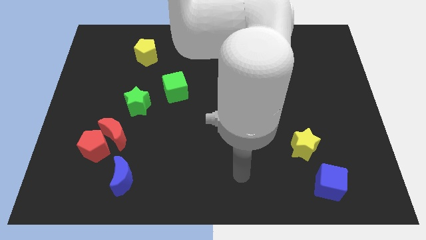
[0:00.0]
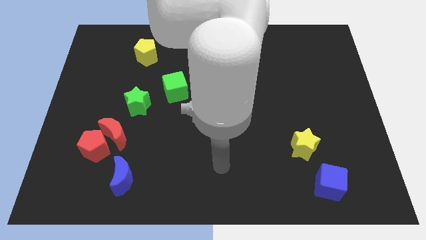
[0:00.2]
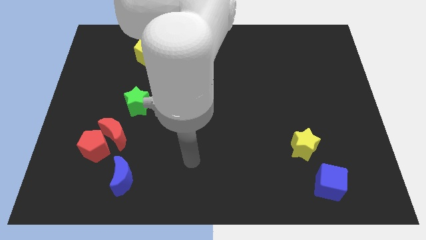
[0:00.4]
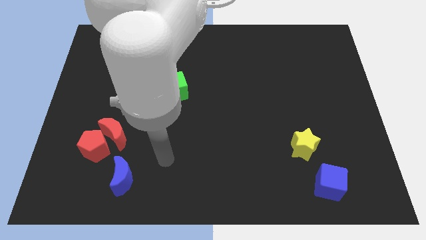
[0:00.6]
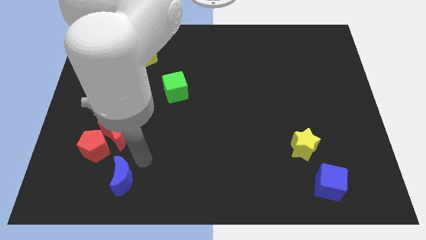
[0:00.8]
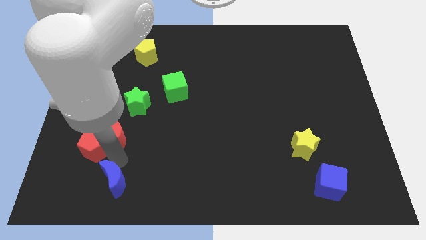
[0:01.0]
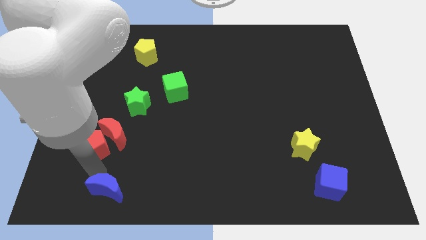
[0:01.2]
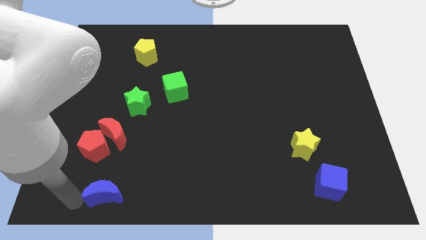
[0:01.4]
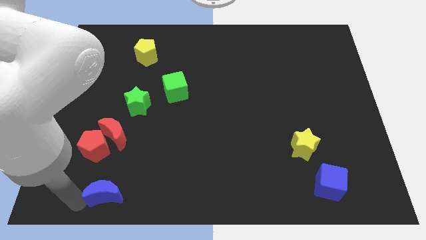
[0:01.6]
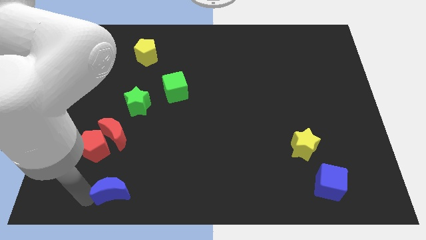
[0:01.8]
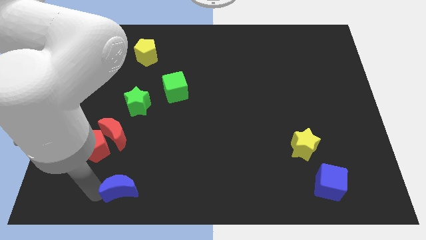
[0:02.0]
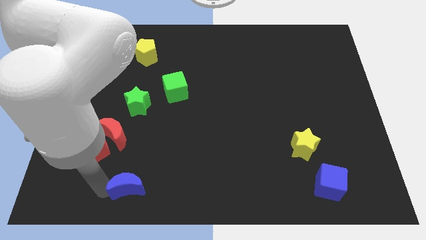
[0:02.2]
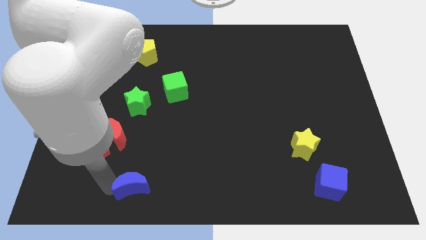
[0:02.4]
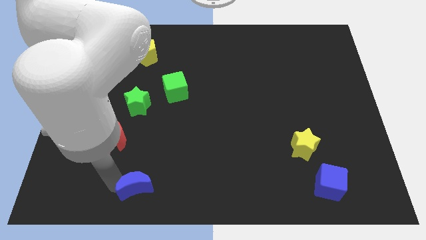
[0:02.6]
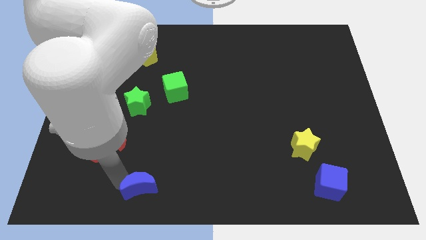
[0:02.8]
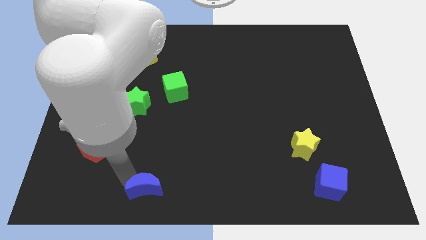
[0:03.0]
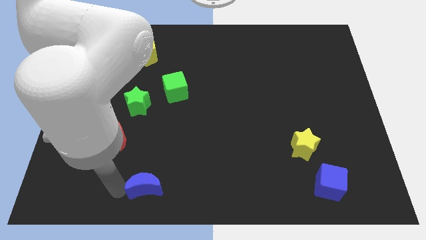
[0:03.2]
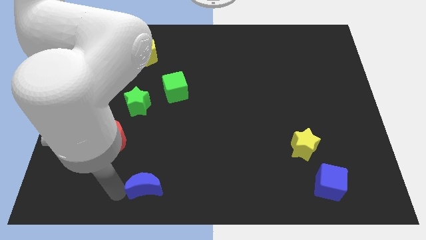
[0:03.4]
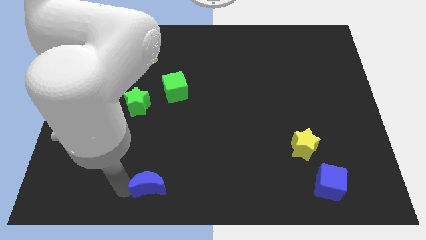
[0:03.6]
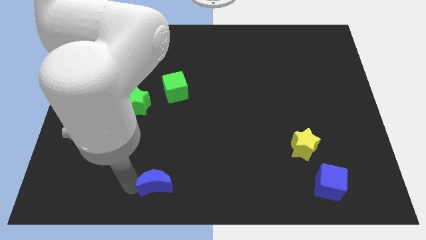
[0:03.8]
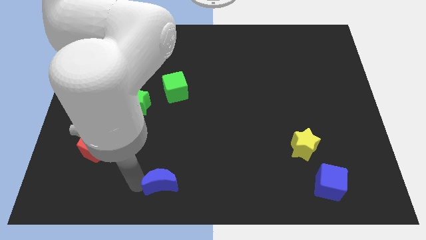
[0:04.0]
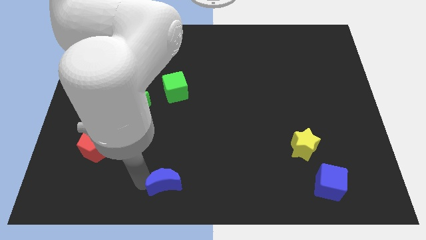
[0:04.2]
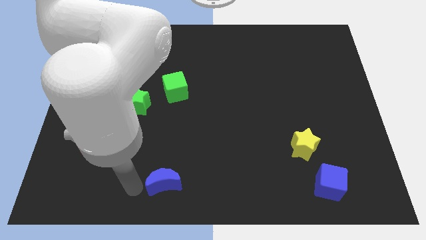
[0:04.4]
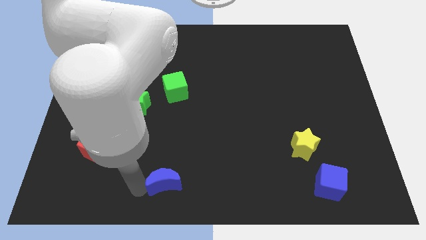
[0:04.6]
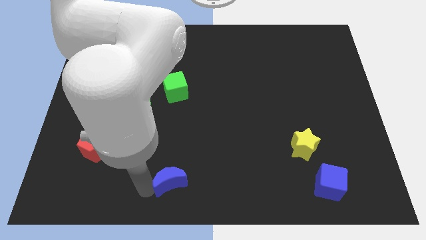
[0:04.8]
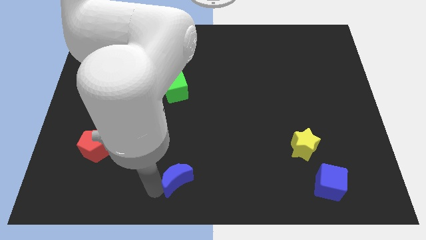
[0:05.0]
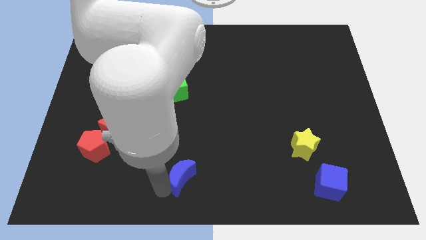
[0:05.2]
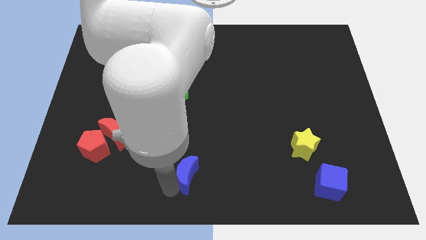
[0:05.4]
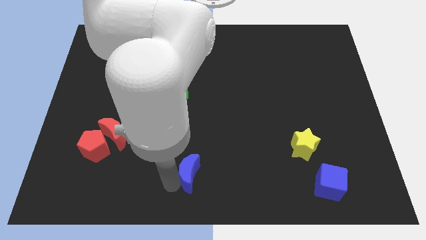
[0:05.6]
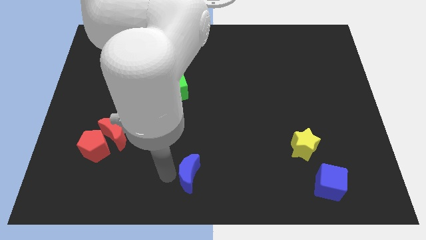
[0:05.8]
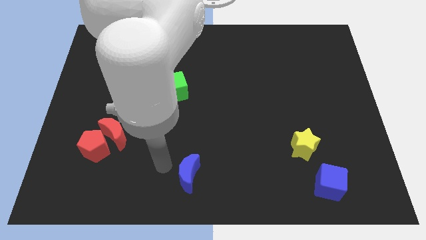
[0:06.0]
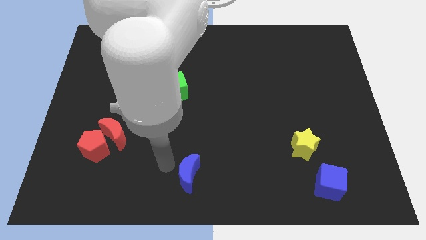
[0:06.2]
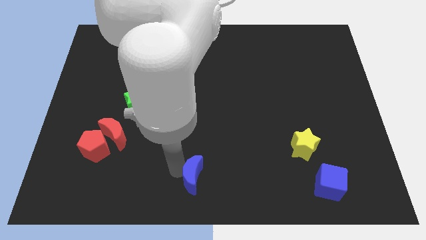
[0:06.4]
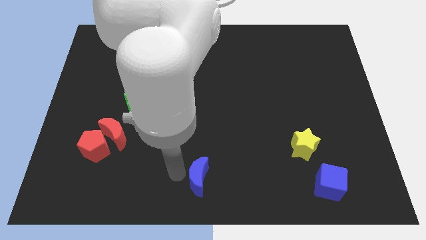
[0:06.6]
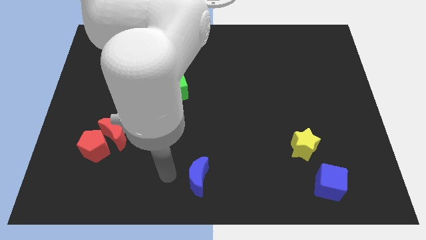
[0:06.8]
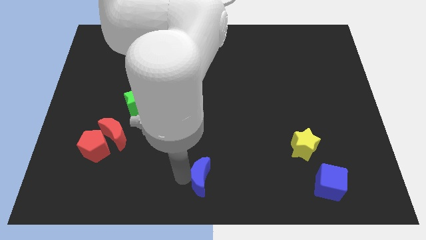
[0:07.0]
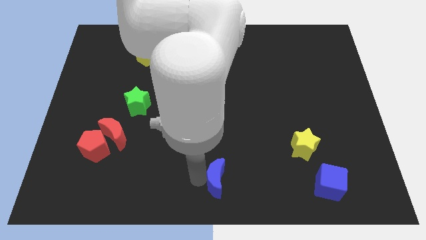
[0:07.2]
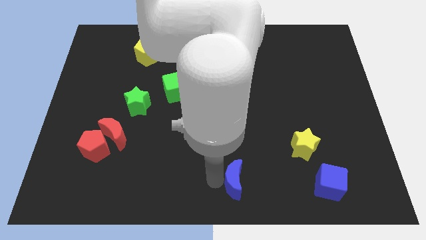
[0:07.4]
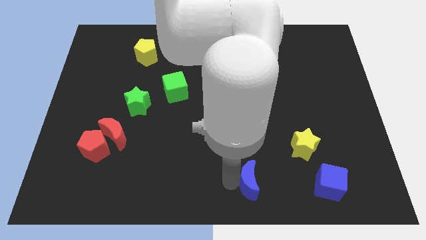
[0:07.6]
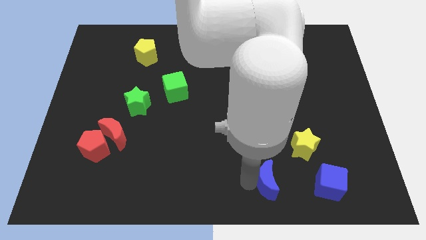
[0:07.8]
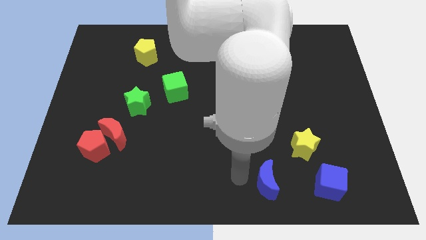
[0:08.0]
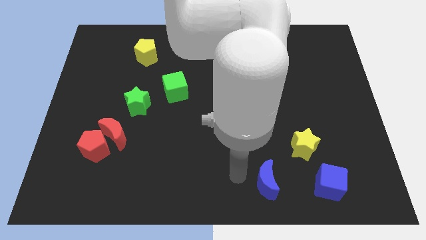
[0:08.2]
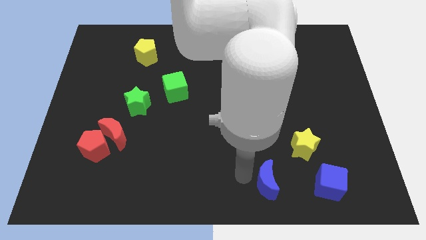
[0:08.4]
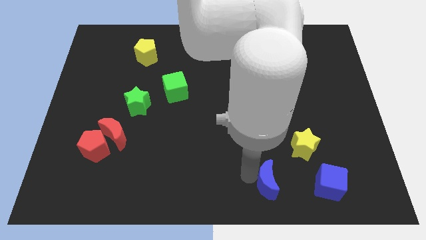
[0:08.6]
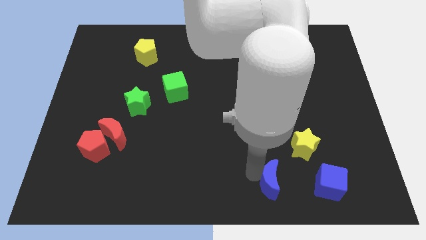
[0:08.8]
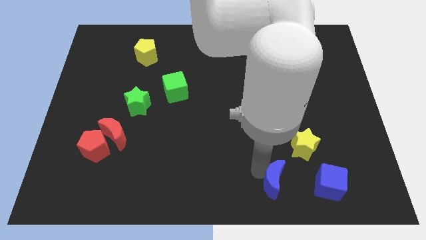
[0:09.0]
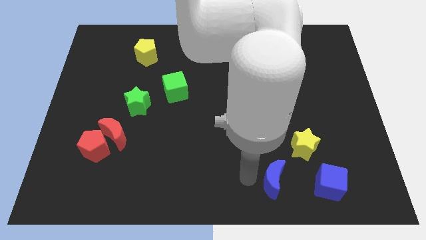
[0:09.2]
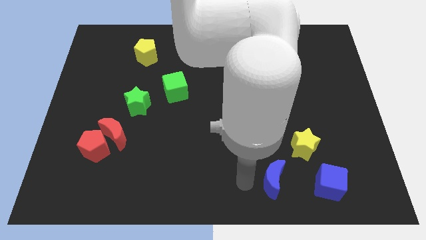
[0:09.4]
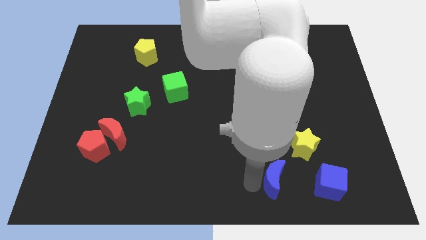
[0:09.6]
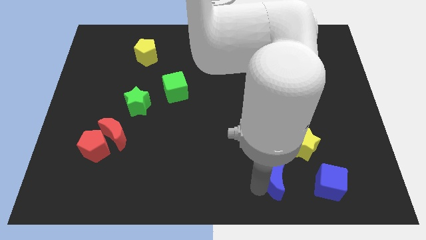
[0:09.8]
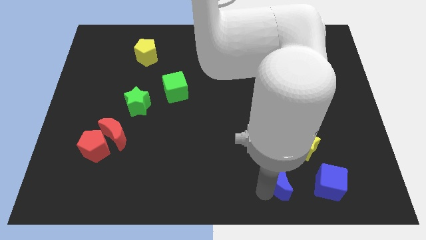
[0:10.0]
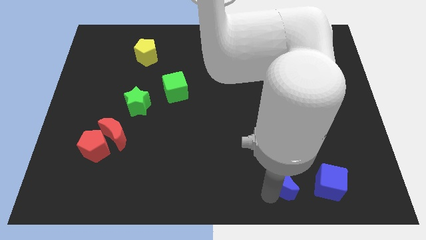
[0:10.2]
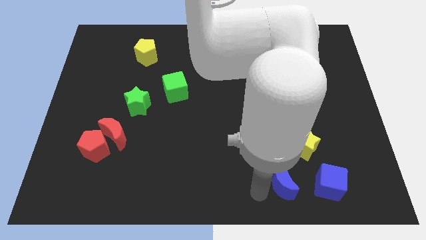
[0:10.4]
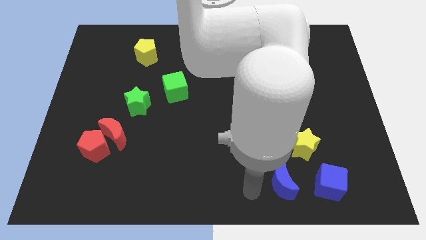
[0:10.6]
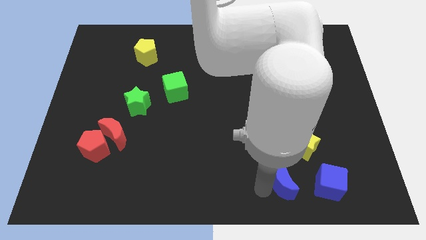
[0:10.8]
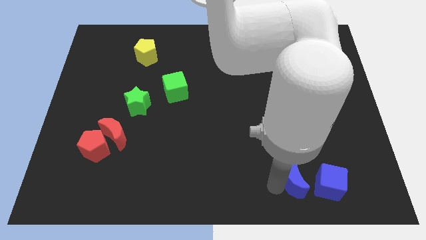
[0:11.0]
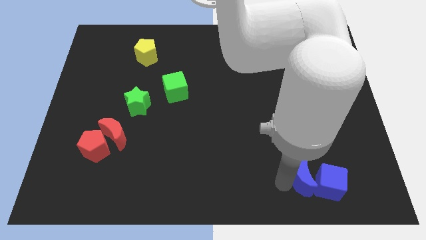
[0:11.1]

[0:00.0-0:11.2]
move the blue moon next to the blue cube

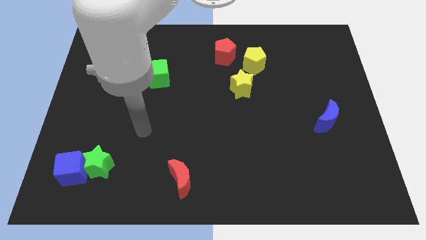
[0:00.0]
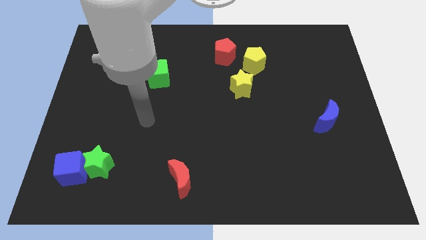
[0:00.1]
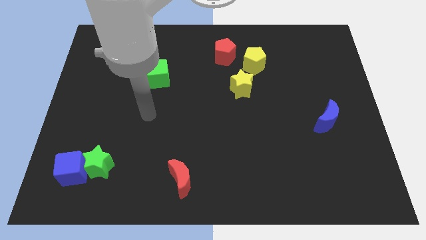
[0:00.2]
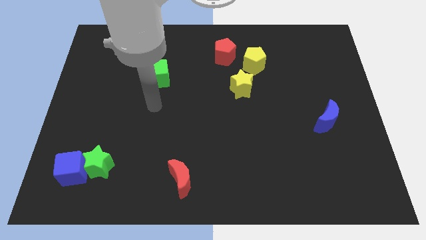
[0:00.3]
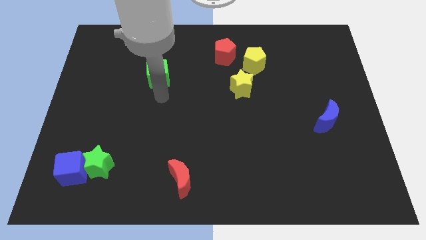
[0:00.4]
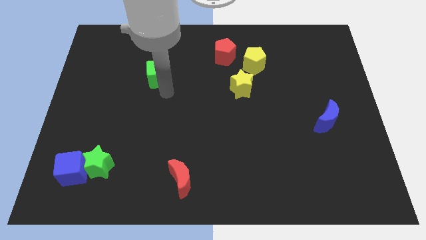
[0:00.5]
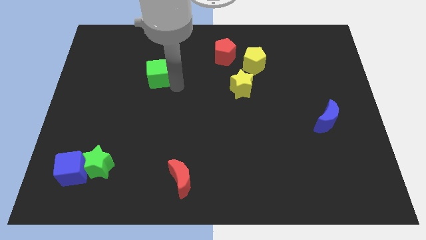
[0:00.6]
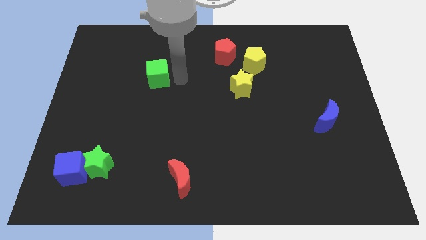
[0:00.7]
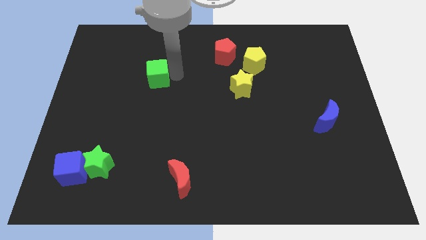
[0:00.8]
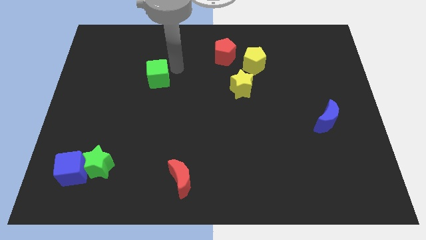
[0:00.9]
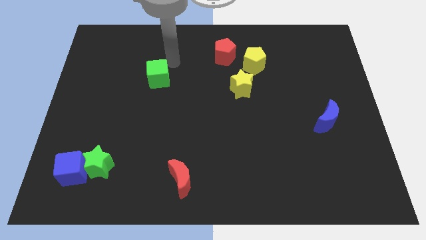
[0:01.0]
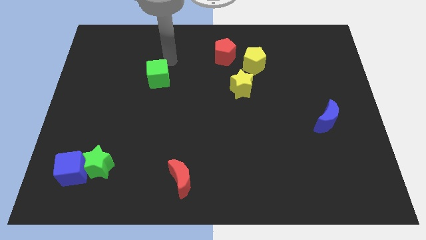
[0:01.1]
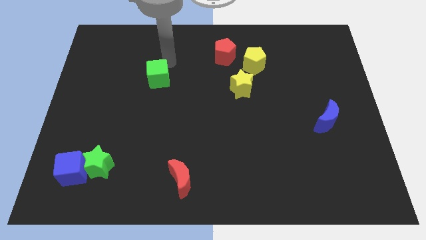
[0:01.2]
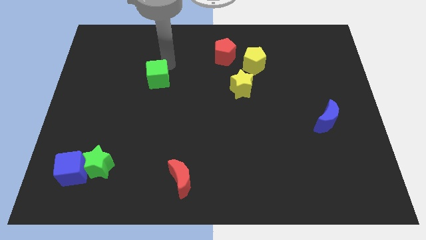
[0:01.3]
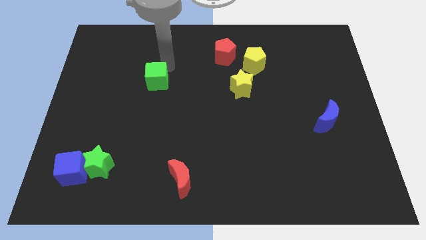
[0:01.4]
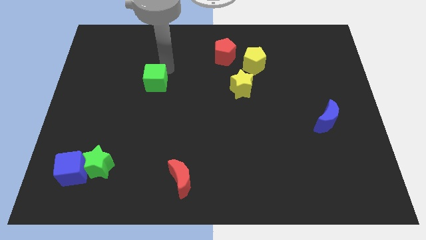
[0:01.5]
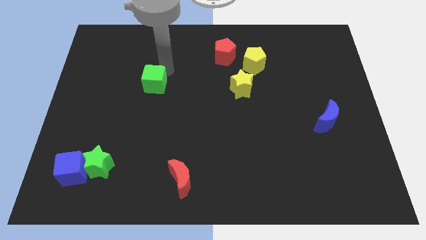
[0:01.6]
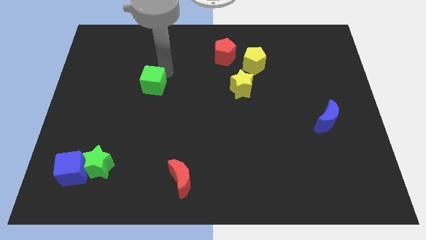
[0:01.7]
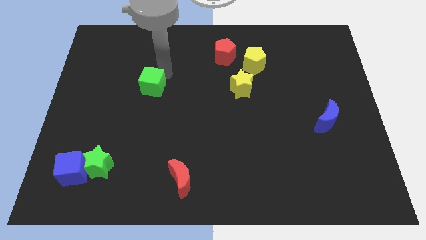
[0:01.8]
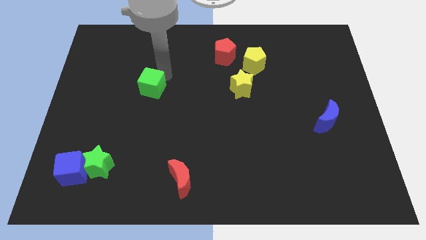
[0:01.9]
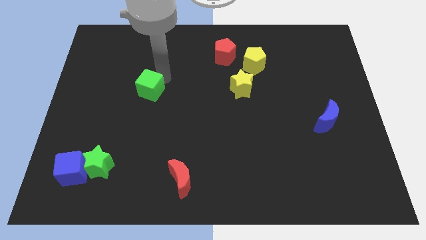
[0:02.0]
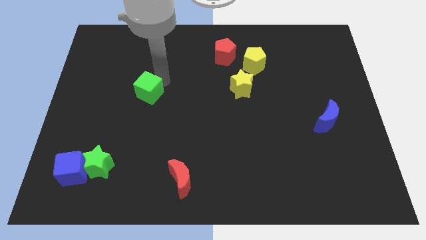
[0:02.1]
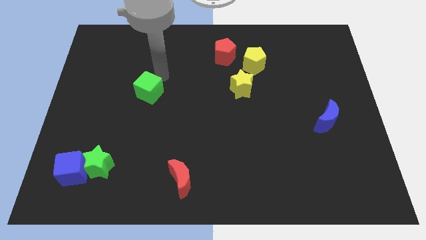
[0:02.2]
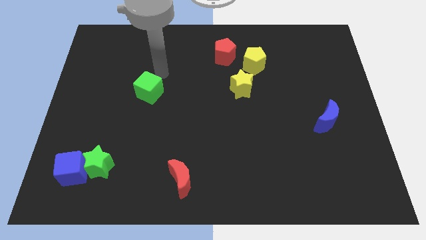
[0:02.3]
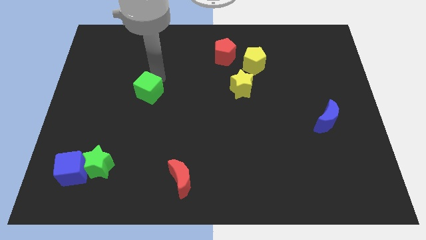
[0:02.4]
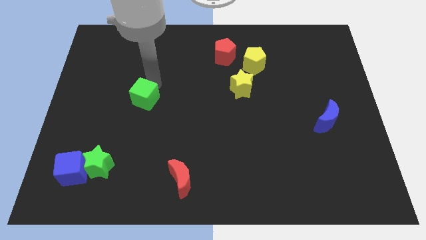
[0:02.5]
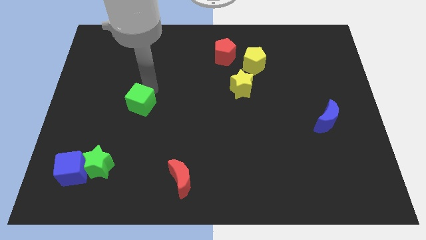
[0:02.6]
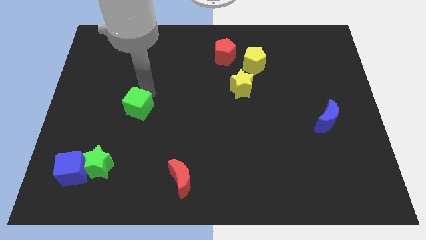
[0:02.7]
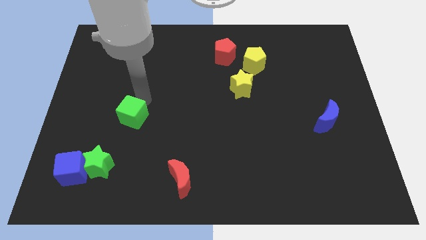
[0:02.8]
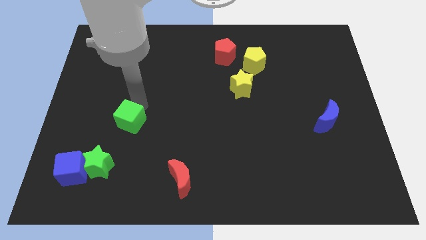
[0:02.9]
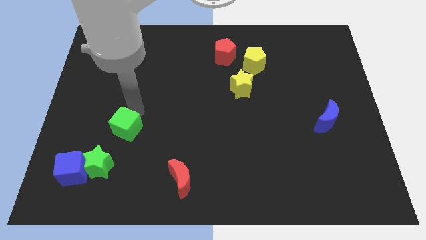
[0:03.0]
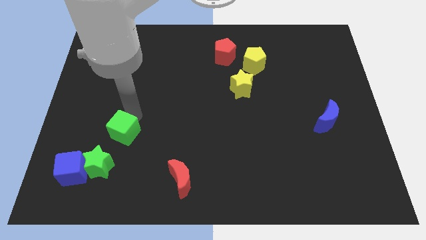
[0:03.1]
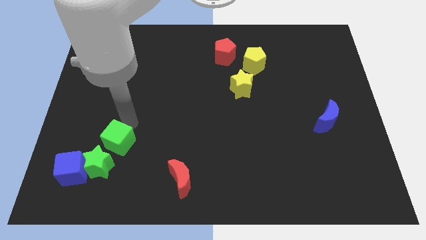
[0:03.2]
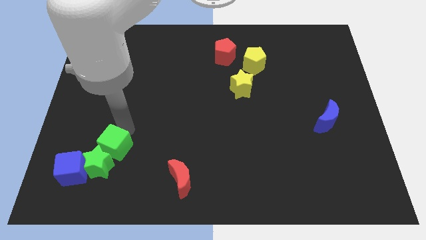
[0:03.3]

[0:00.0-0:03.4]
move the green cube to the green star
